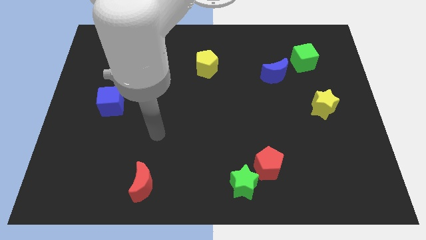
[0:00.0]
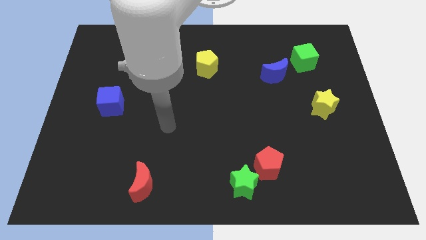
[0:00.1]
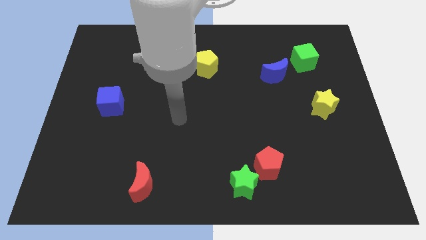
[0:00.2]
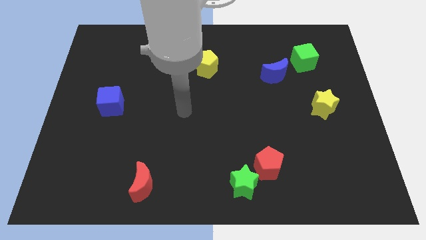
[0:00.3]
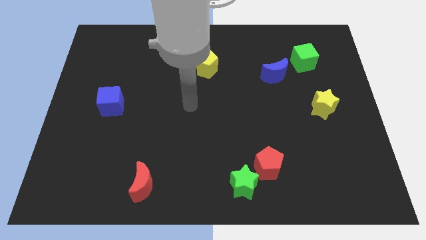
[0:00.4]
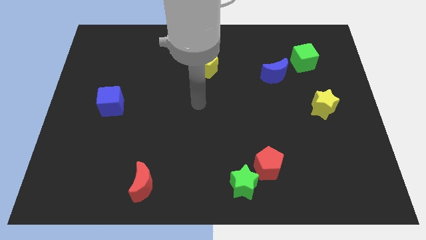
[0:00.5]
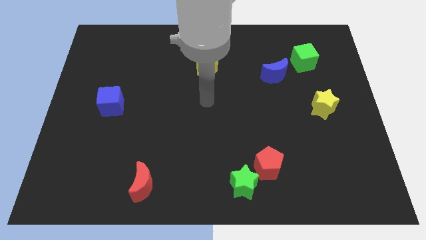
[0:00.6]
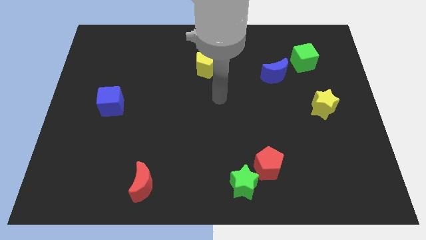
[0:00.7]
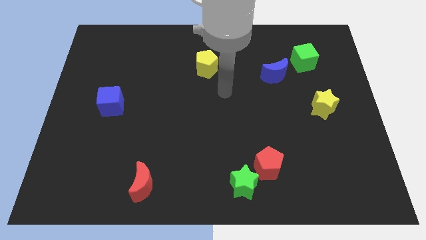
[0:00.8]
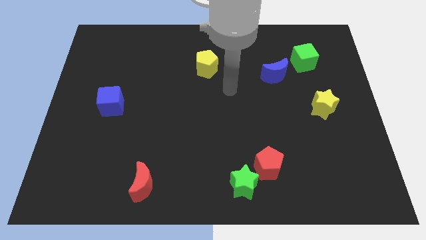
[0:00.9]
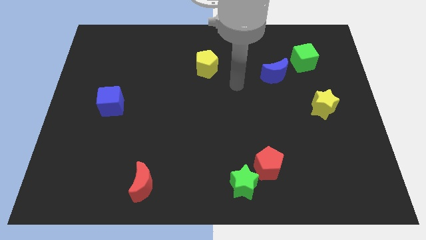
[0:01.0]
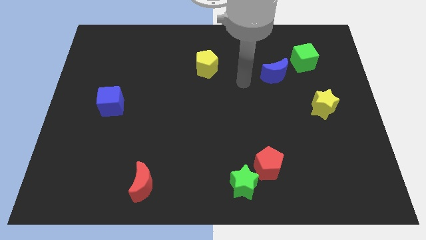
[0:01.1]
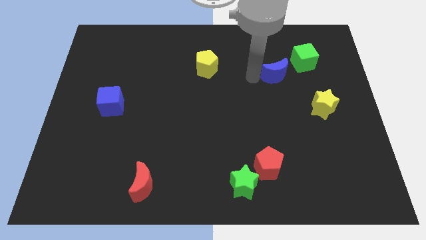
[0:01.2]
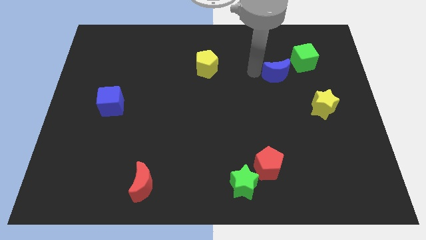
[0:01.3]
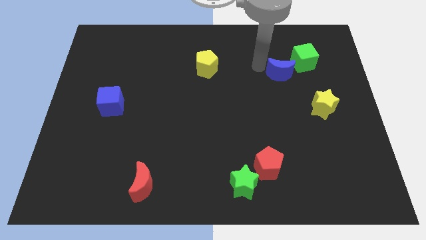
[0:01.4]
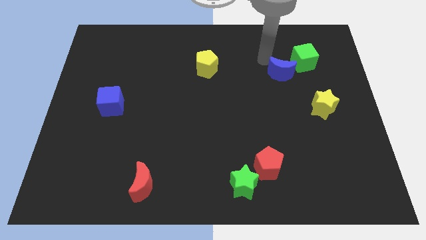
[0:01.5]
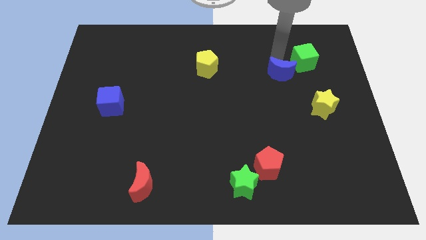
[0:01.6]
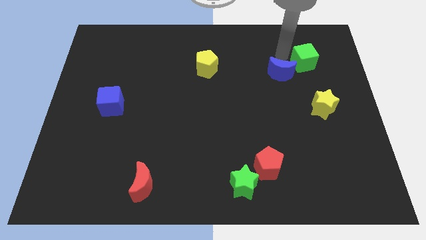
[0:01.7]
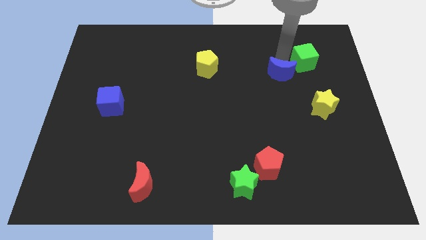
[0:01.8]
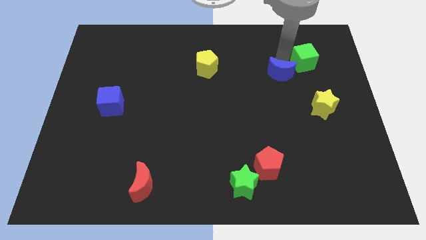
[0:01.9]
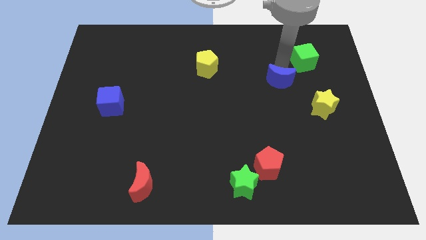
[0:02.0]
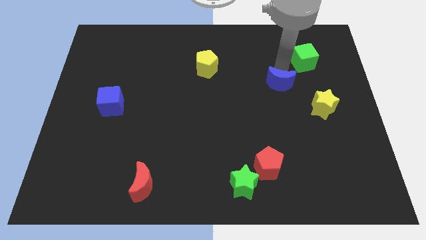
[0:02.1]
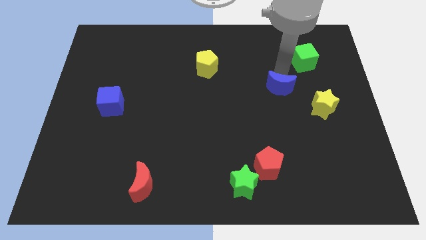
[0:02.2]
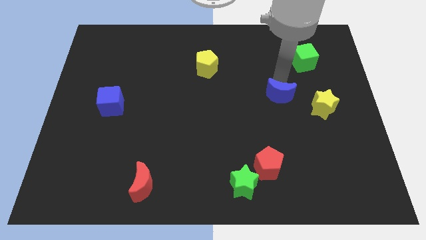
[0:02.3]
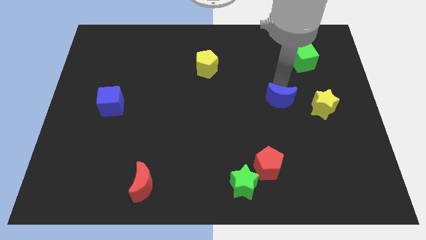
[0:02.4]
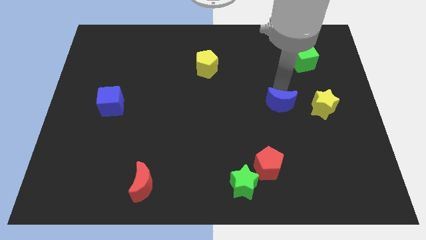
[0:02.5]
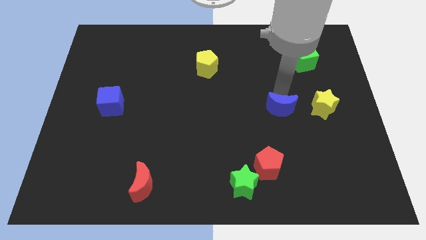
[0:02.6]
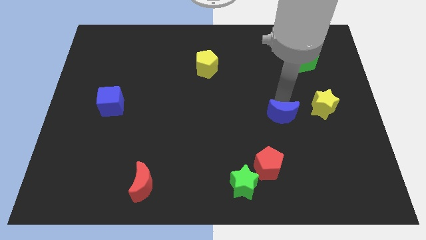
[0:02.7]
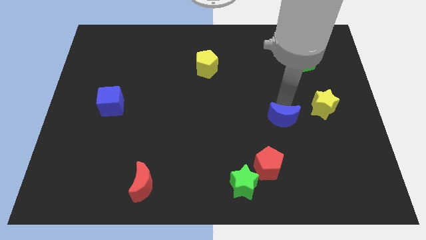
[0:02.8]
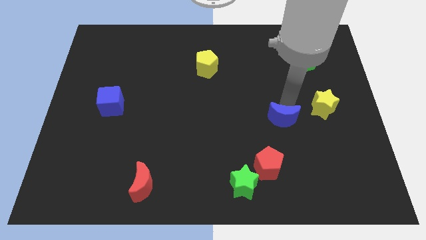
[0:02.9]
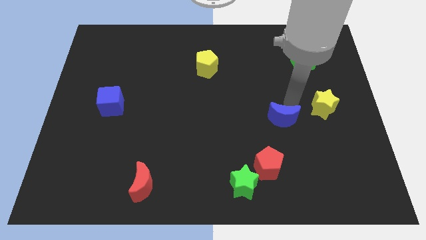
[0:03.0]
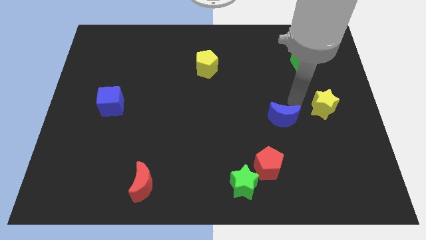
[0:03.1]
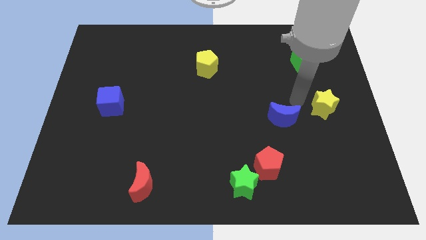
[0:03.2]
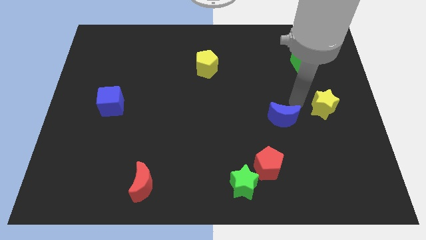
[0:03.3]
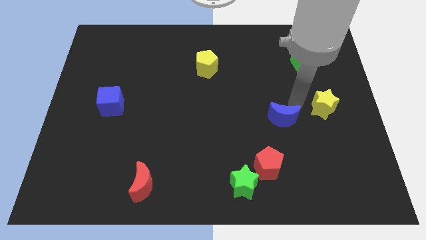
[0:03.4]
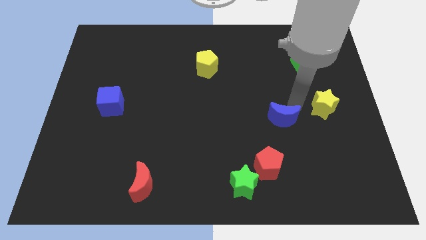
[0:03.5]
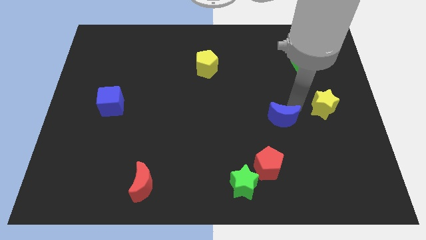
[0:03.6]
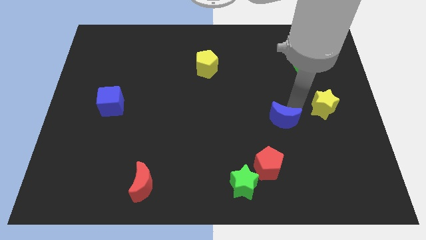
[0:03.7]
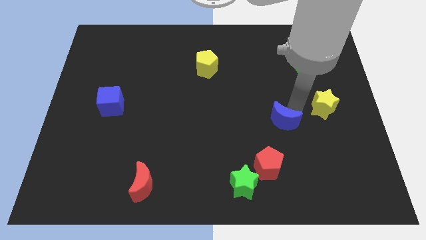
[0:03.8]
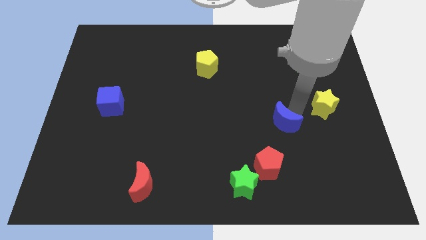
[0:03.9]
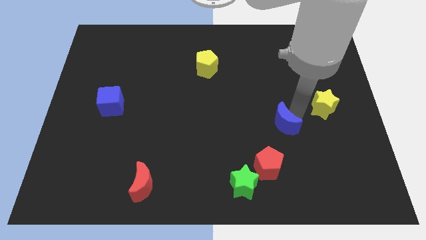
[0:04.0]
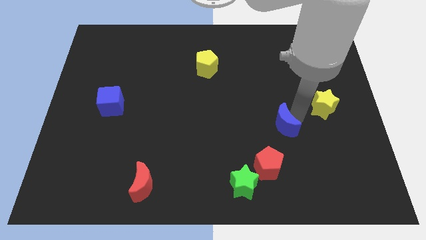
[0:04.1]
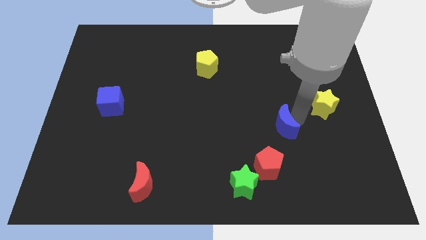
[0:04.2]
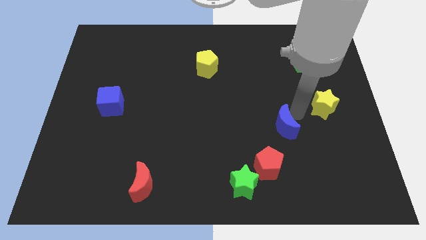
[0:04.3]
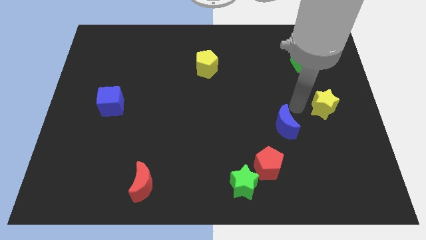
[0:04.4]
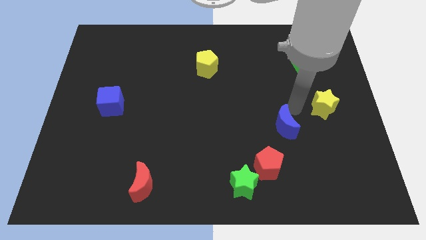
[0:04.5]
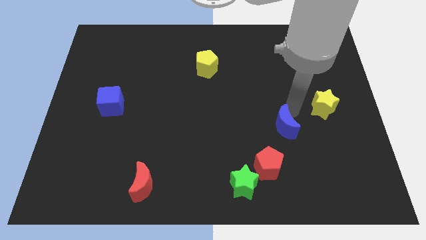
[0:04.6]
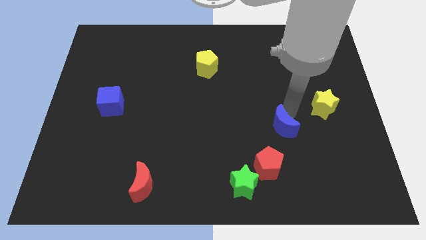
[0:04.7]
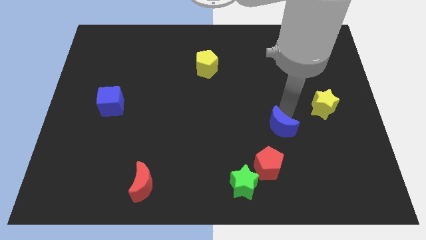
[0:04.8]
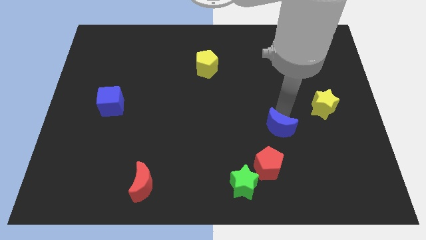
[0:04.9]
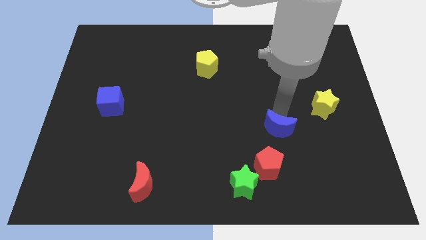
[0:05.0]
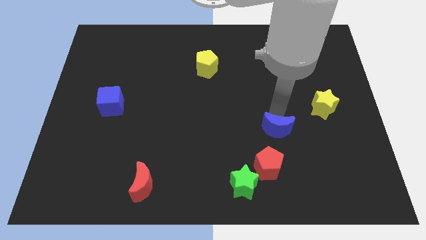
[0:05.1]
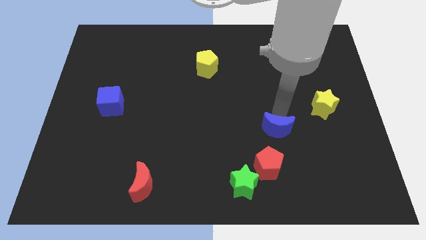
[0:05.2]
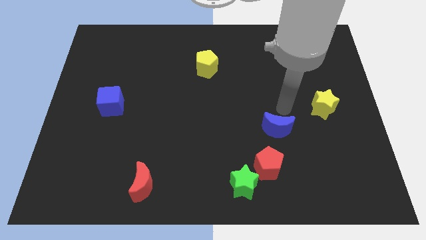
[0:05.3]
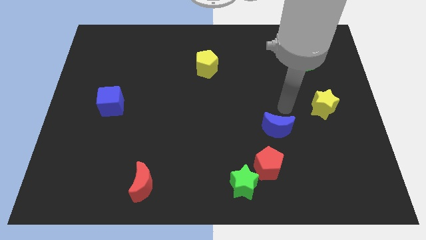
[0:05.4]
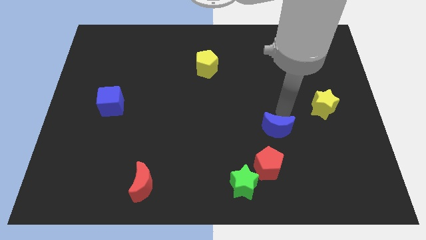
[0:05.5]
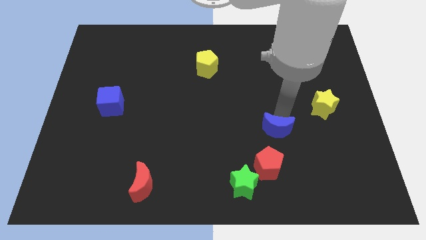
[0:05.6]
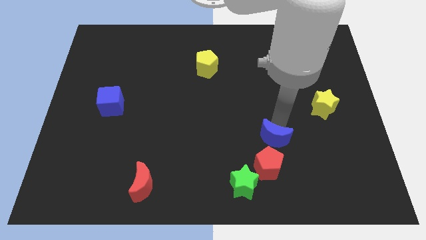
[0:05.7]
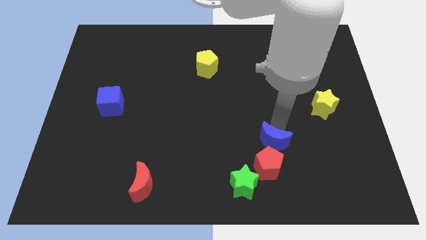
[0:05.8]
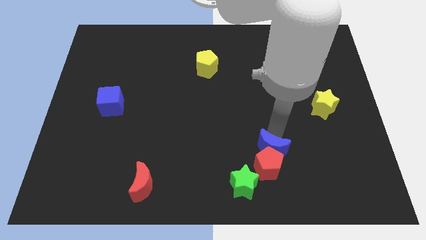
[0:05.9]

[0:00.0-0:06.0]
push the blue moon to the red pentagon
